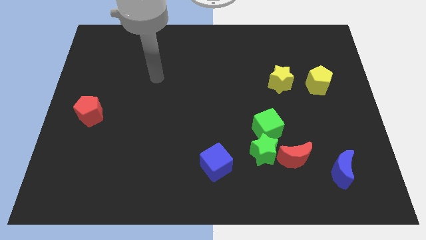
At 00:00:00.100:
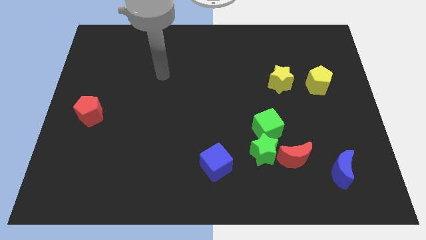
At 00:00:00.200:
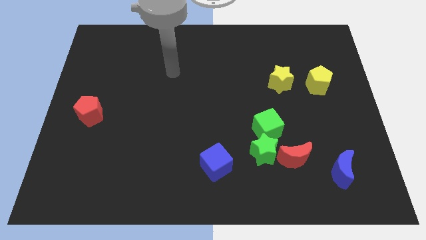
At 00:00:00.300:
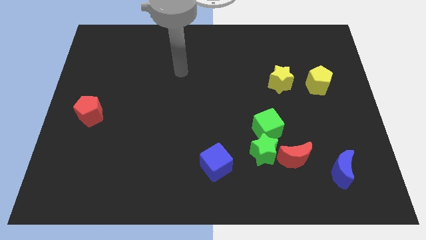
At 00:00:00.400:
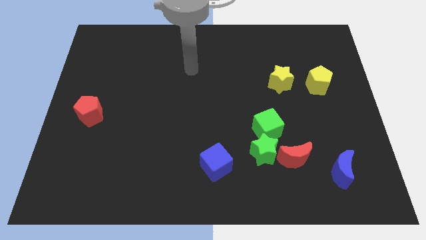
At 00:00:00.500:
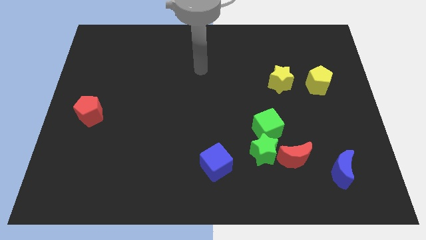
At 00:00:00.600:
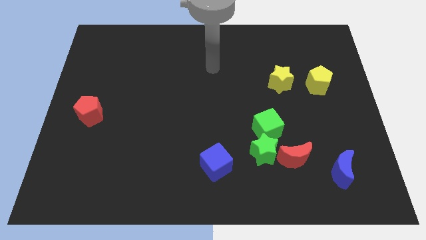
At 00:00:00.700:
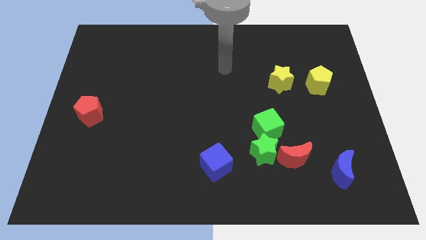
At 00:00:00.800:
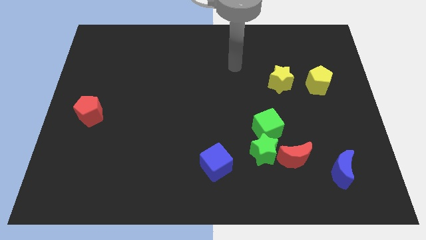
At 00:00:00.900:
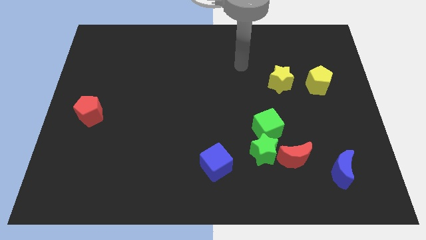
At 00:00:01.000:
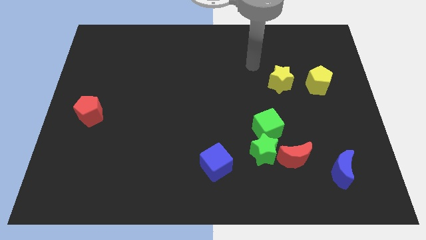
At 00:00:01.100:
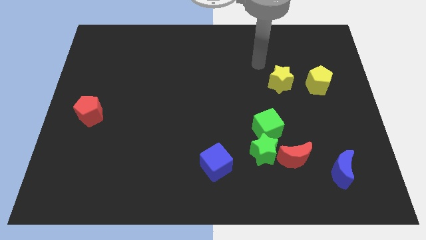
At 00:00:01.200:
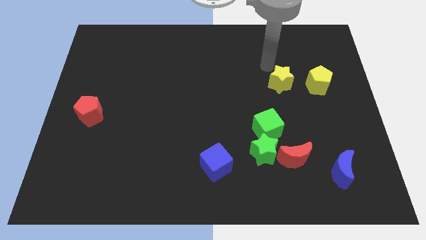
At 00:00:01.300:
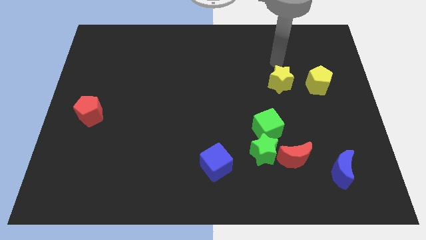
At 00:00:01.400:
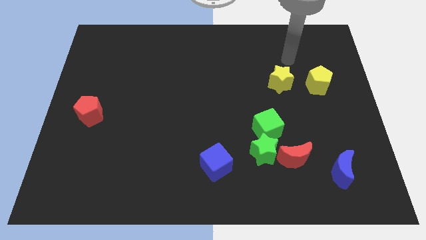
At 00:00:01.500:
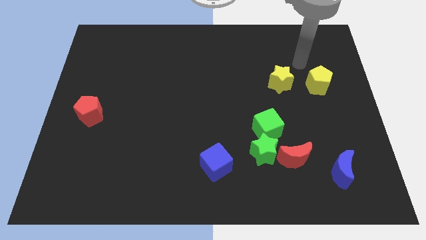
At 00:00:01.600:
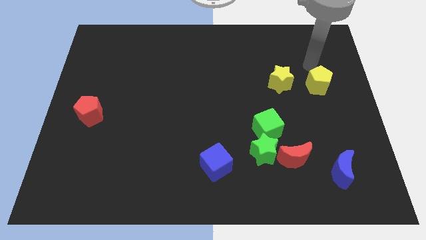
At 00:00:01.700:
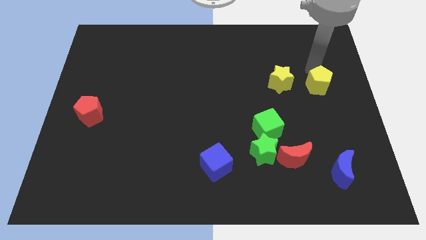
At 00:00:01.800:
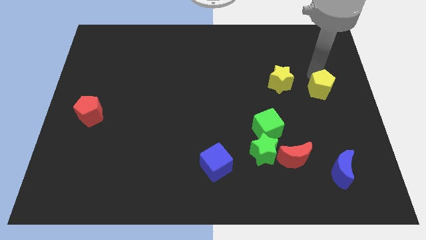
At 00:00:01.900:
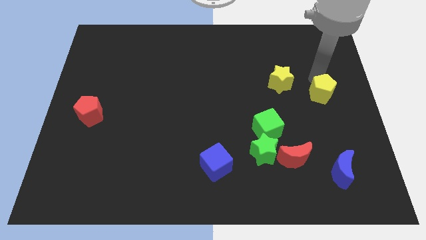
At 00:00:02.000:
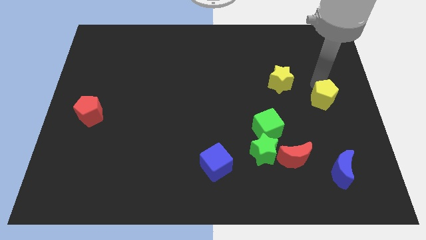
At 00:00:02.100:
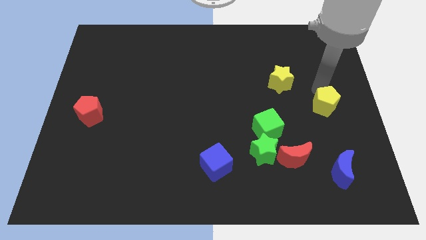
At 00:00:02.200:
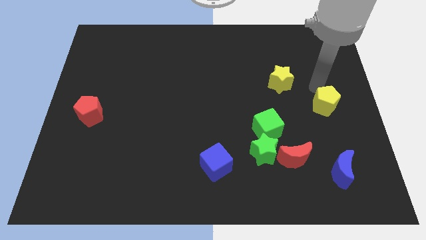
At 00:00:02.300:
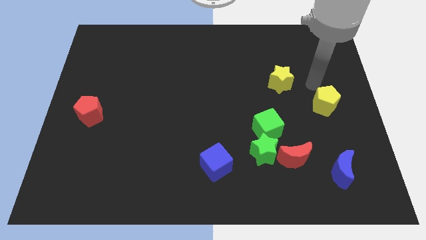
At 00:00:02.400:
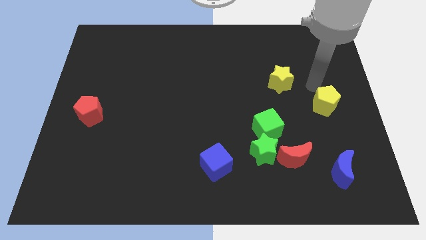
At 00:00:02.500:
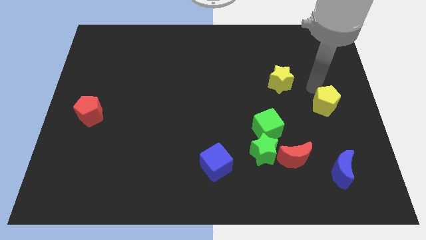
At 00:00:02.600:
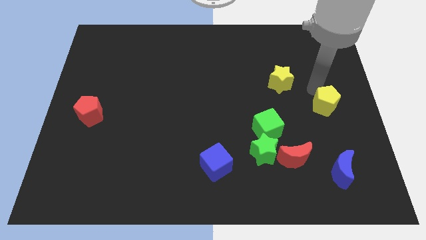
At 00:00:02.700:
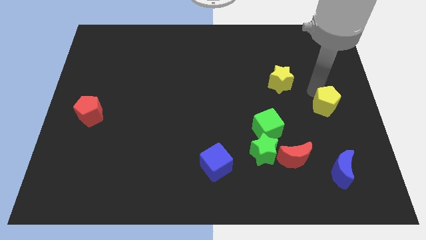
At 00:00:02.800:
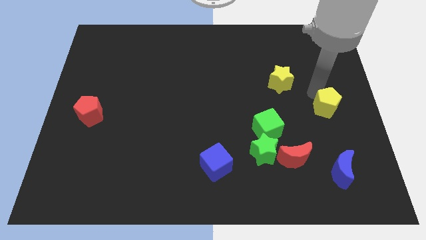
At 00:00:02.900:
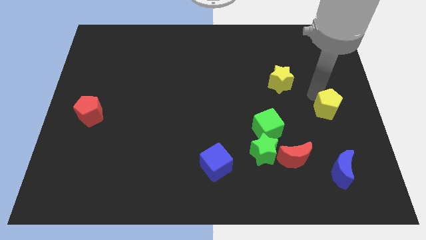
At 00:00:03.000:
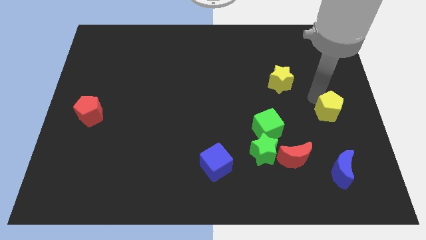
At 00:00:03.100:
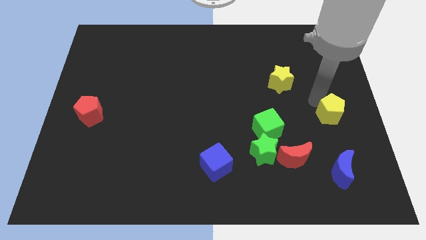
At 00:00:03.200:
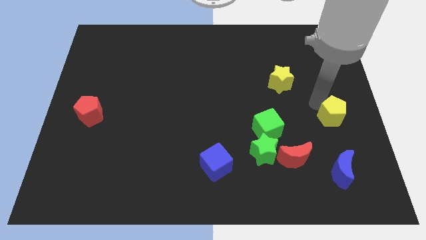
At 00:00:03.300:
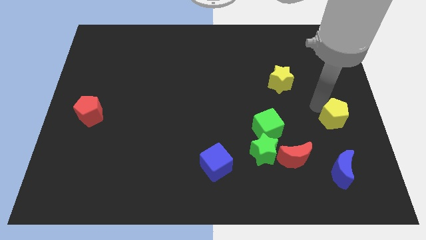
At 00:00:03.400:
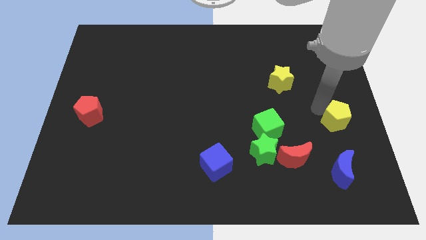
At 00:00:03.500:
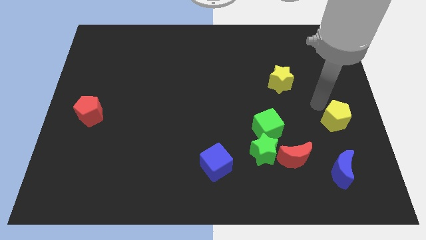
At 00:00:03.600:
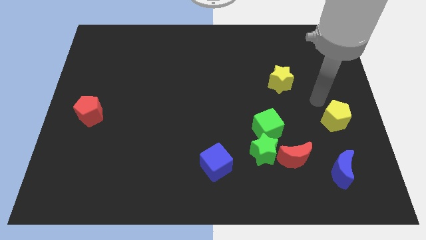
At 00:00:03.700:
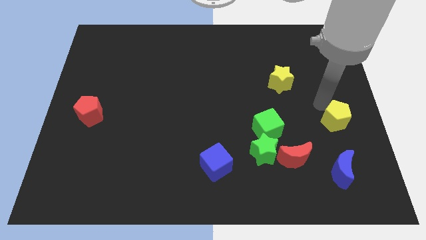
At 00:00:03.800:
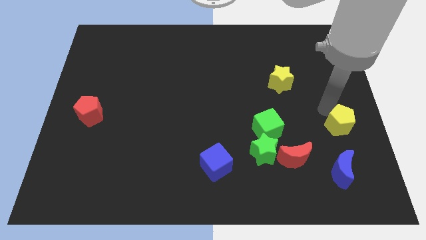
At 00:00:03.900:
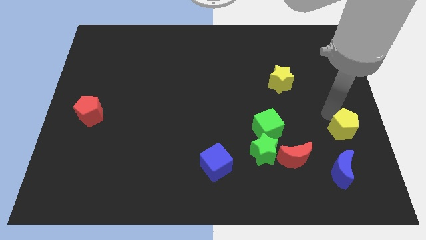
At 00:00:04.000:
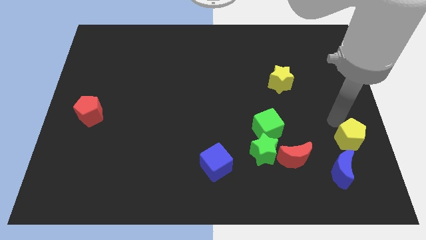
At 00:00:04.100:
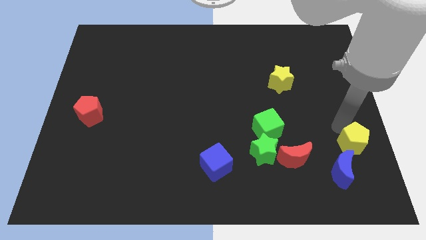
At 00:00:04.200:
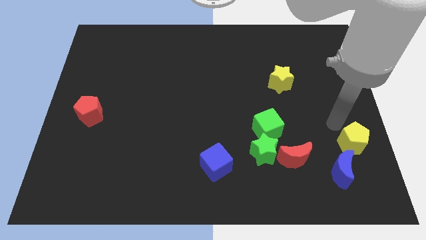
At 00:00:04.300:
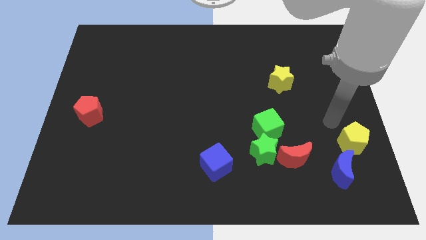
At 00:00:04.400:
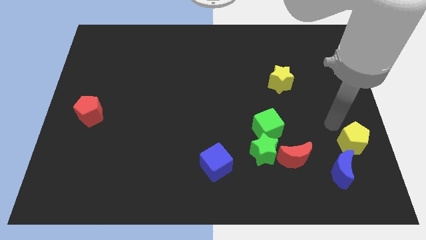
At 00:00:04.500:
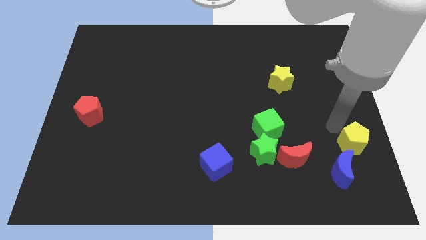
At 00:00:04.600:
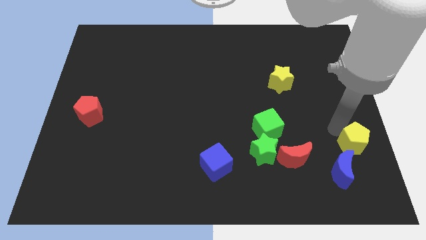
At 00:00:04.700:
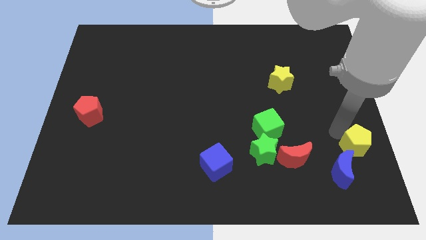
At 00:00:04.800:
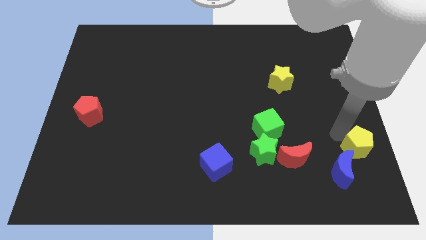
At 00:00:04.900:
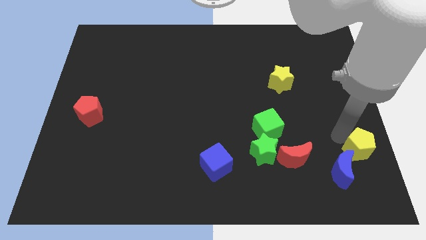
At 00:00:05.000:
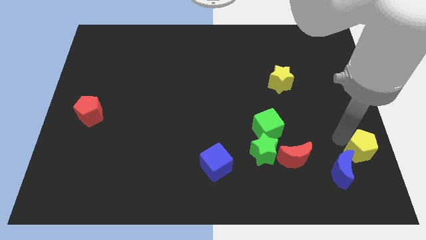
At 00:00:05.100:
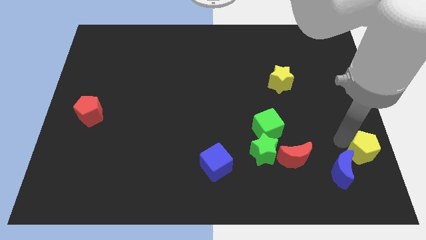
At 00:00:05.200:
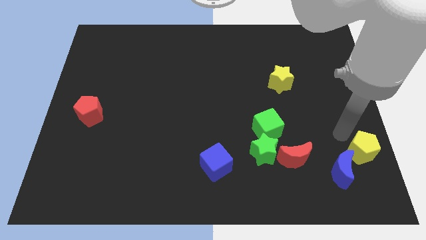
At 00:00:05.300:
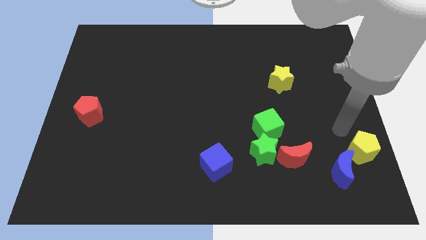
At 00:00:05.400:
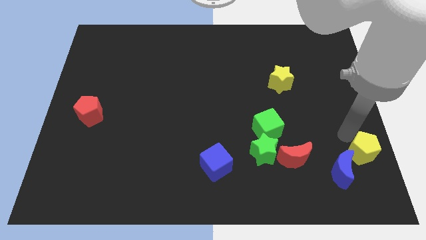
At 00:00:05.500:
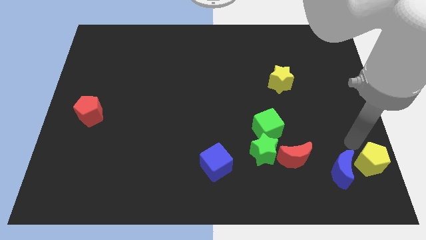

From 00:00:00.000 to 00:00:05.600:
push the yellow pentagon to the bottom right

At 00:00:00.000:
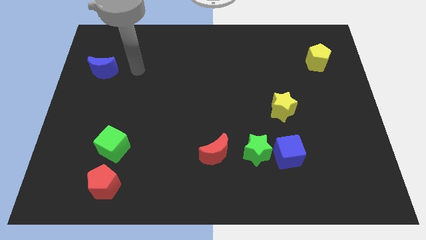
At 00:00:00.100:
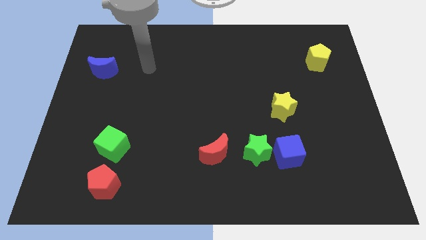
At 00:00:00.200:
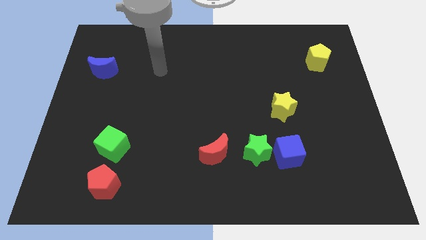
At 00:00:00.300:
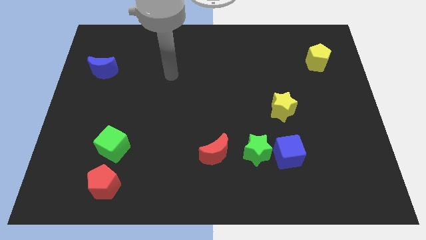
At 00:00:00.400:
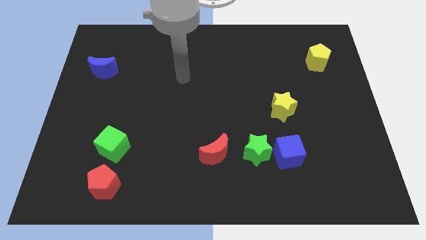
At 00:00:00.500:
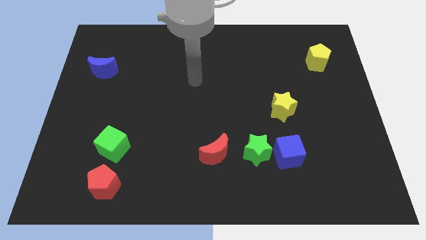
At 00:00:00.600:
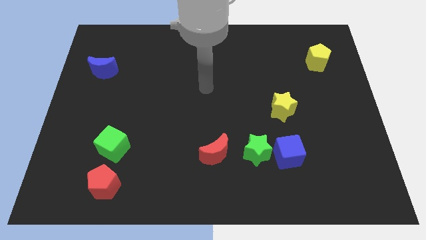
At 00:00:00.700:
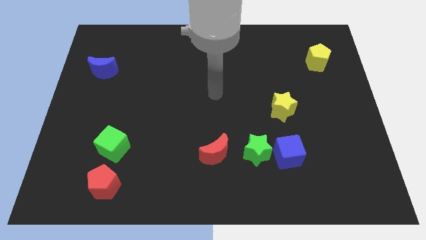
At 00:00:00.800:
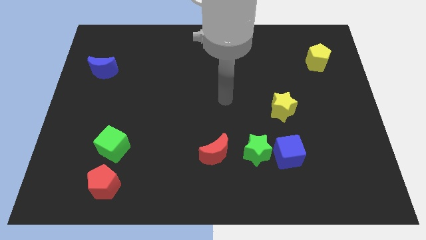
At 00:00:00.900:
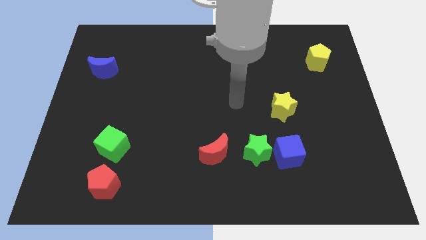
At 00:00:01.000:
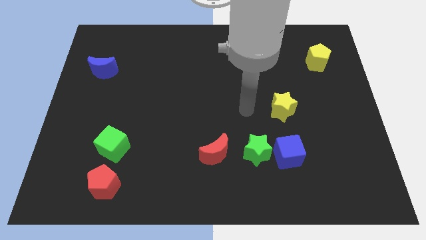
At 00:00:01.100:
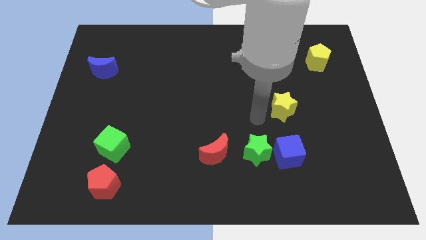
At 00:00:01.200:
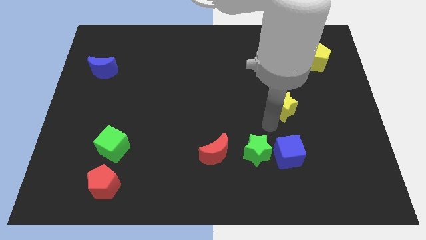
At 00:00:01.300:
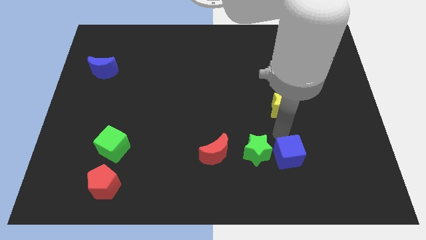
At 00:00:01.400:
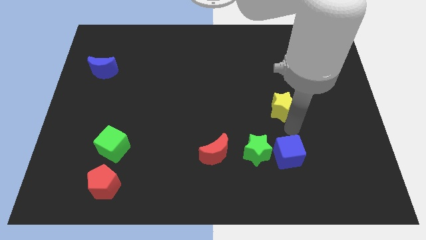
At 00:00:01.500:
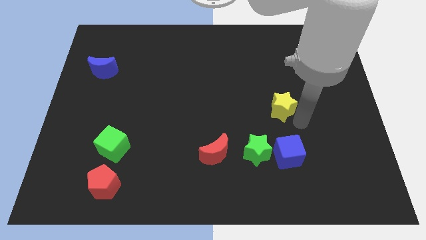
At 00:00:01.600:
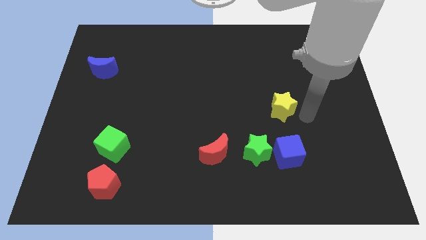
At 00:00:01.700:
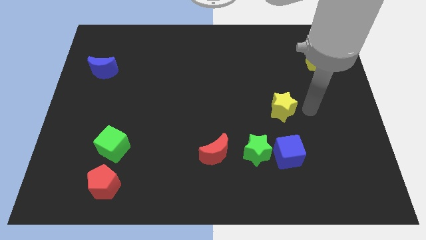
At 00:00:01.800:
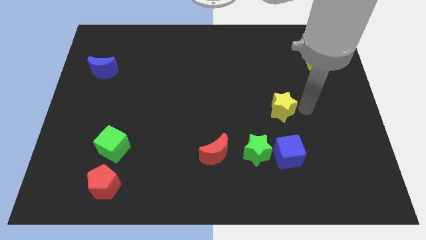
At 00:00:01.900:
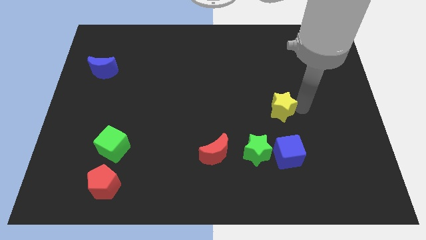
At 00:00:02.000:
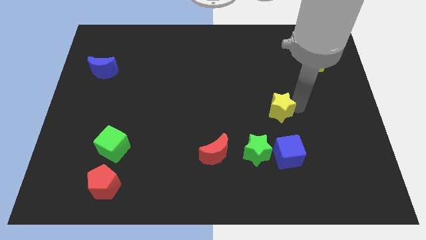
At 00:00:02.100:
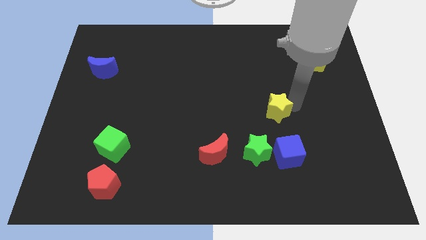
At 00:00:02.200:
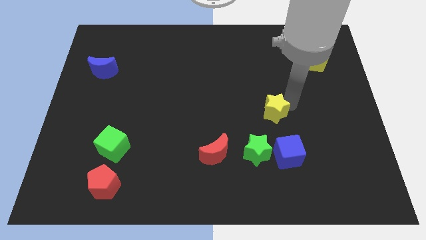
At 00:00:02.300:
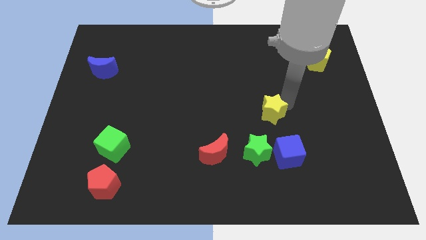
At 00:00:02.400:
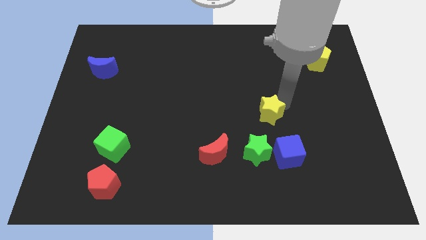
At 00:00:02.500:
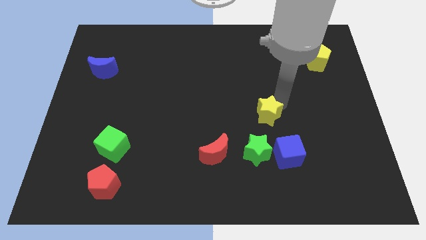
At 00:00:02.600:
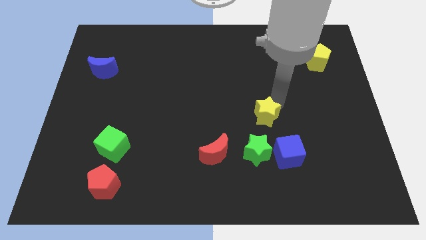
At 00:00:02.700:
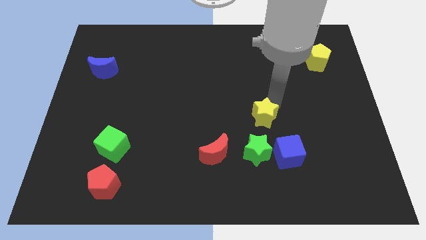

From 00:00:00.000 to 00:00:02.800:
put the yellow star to the center
